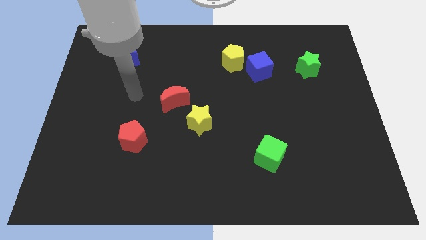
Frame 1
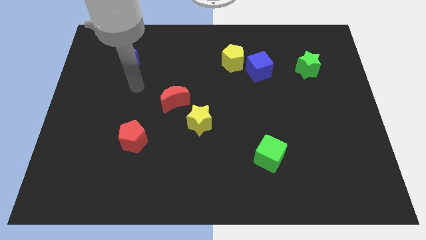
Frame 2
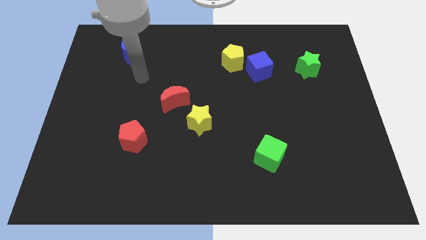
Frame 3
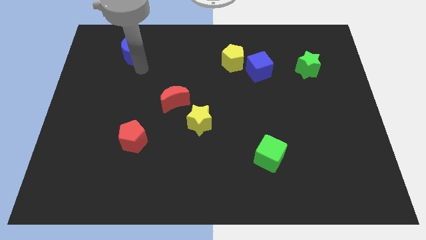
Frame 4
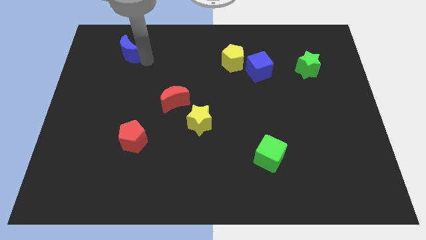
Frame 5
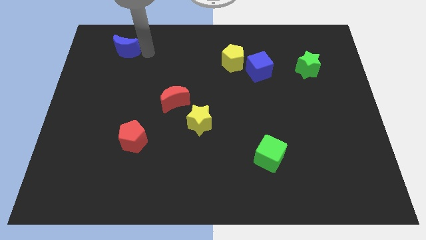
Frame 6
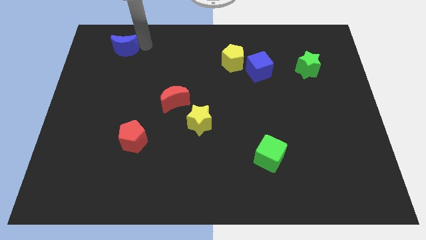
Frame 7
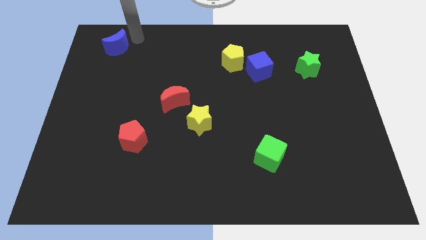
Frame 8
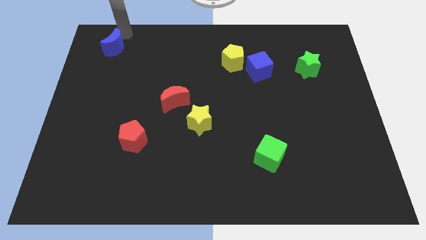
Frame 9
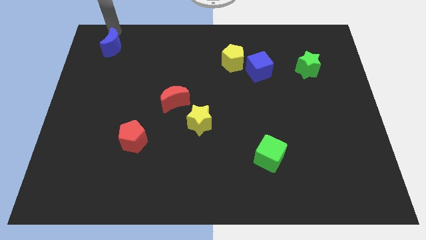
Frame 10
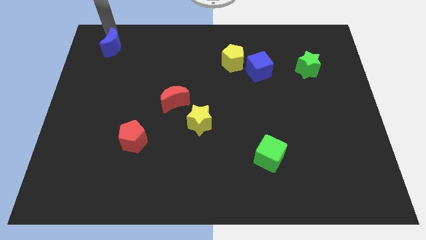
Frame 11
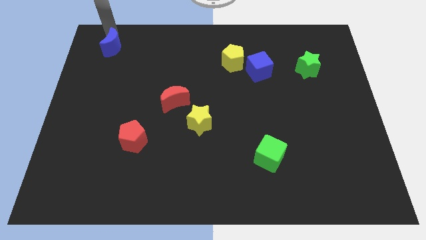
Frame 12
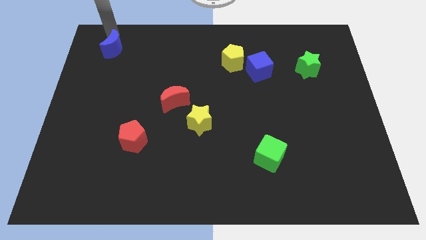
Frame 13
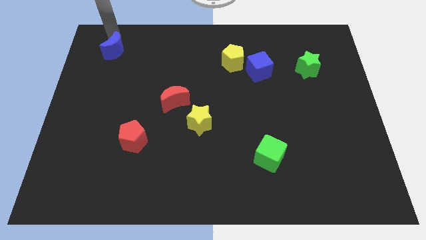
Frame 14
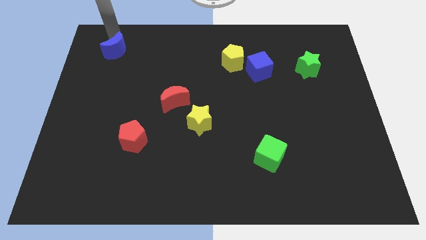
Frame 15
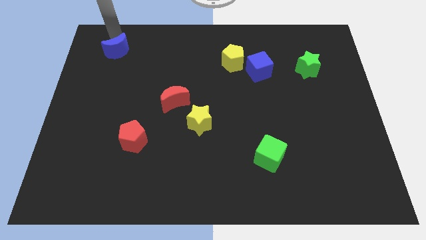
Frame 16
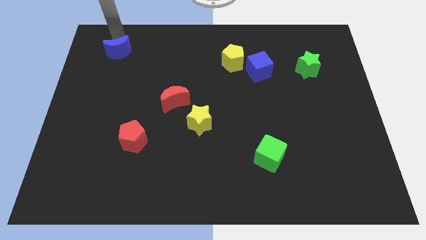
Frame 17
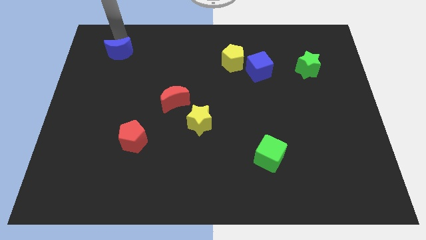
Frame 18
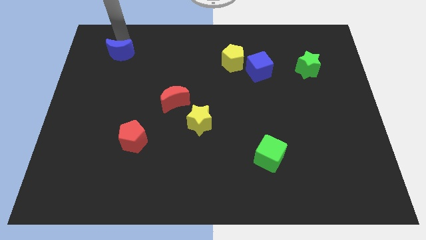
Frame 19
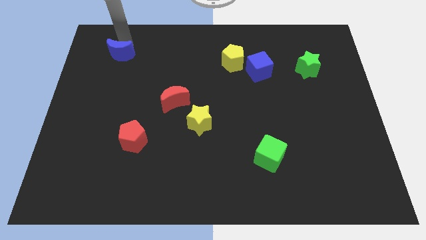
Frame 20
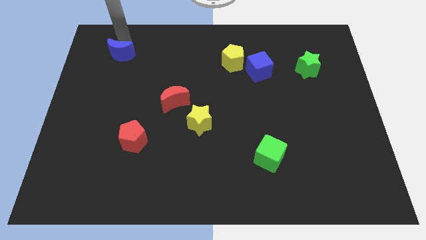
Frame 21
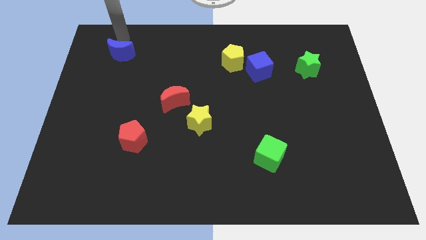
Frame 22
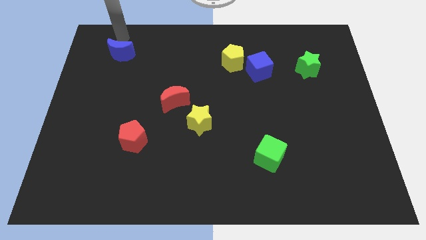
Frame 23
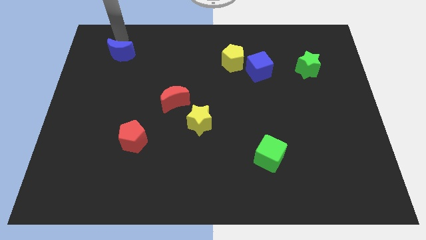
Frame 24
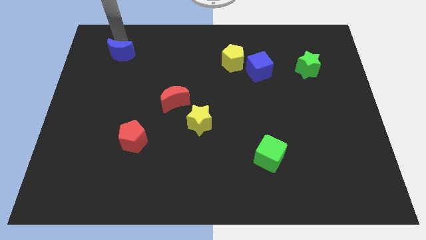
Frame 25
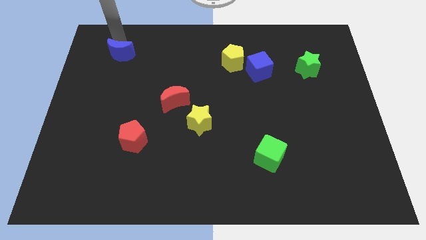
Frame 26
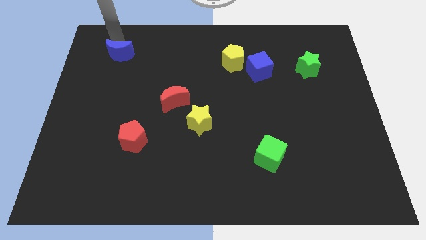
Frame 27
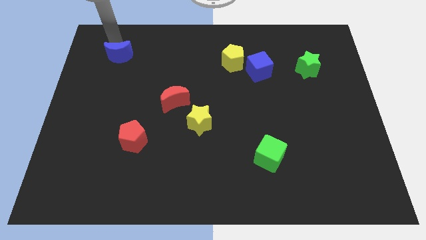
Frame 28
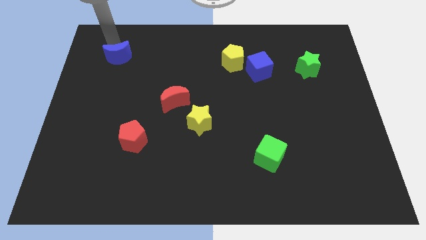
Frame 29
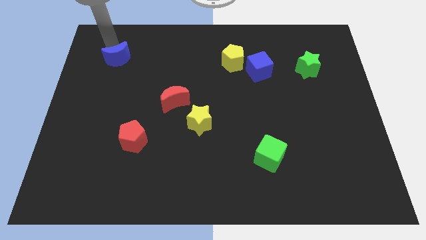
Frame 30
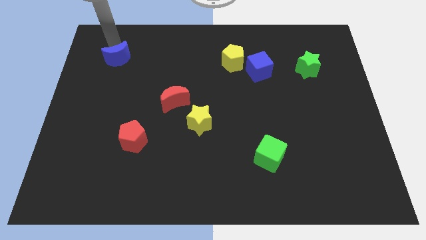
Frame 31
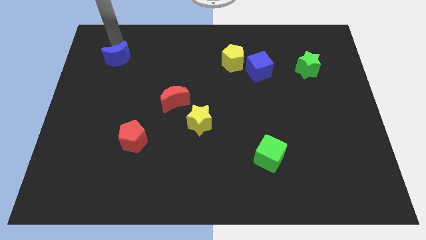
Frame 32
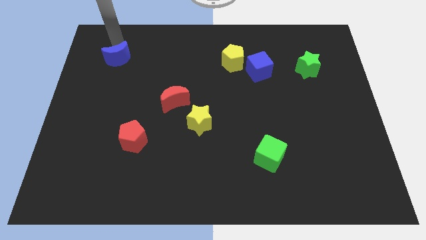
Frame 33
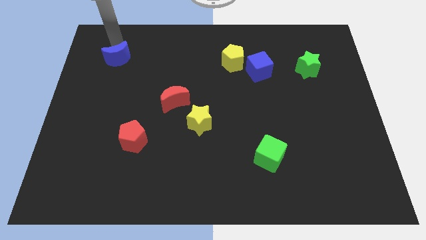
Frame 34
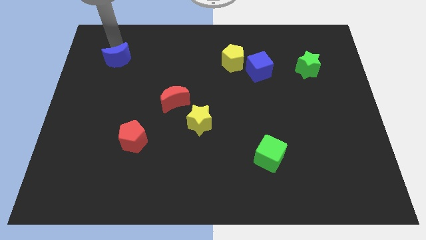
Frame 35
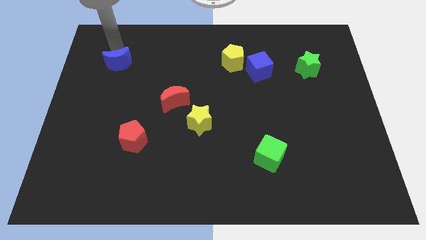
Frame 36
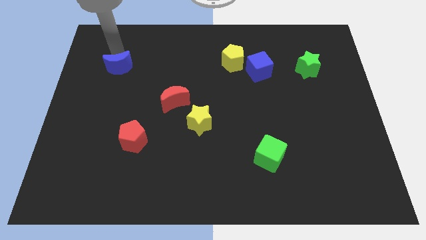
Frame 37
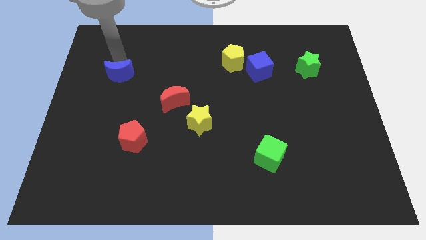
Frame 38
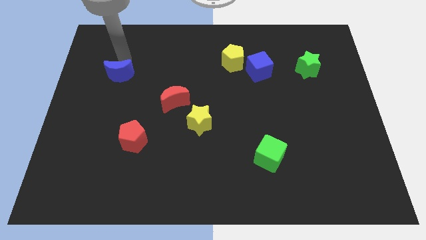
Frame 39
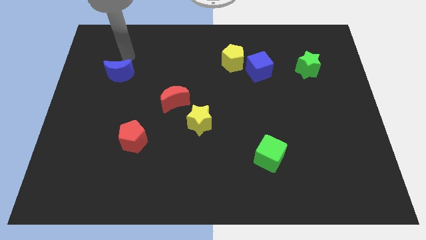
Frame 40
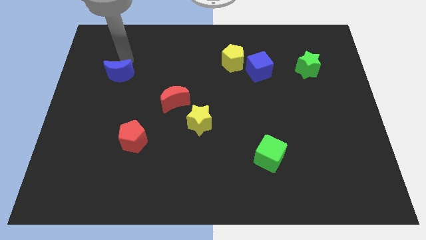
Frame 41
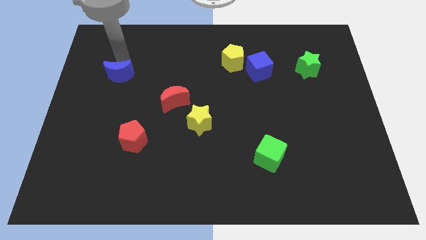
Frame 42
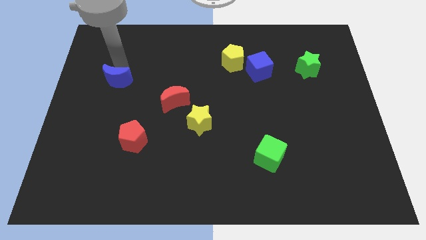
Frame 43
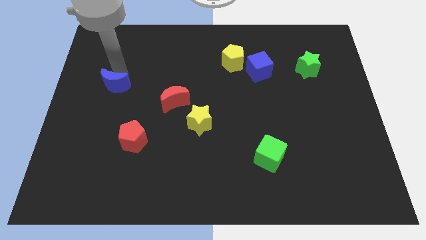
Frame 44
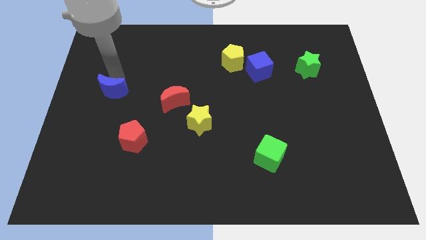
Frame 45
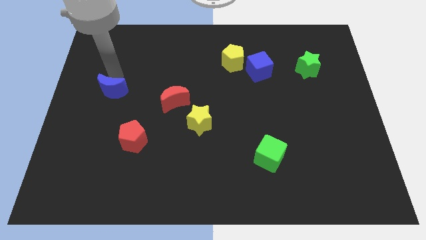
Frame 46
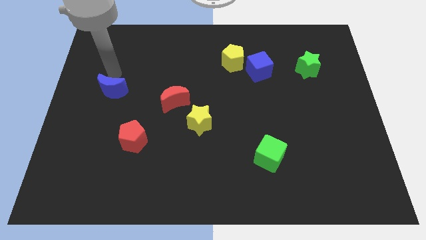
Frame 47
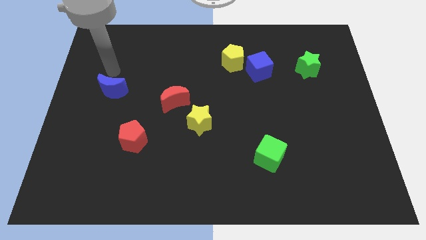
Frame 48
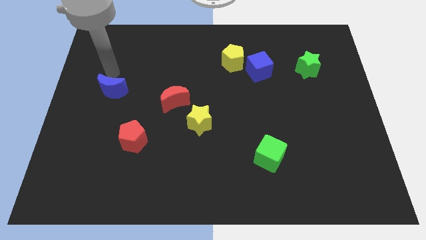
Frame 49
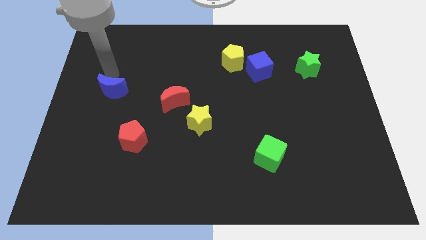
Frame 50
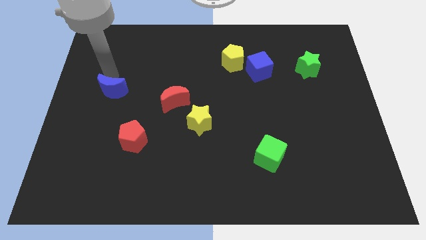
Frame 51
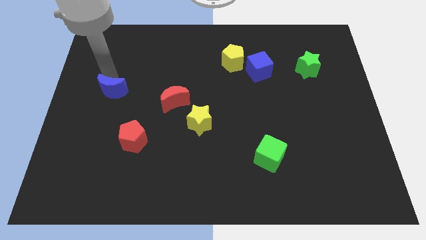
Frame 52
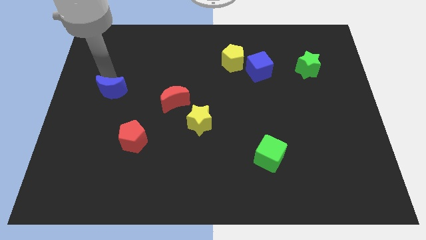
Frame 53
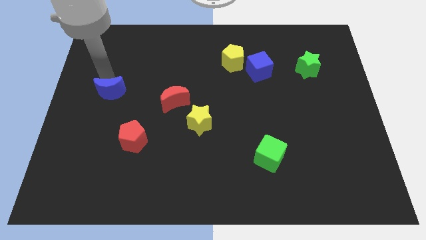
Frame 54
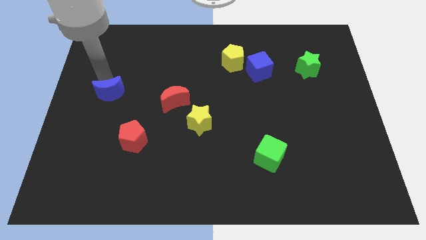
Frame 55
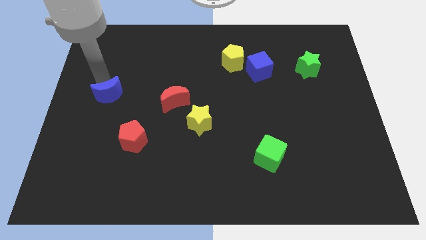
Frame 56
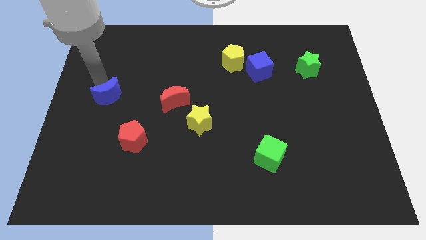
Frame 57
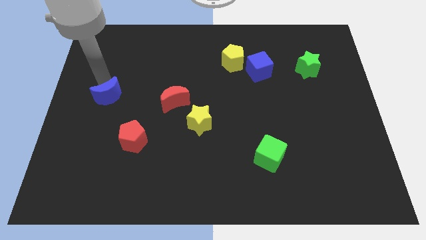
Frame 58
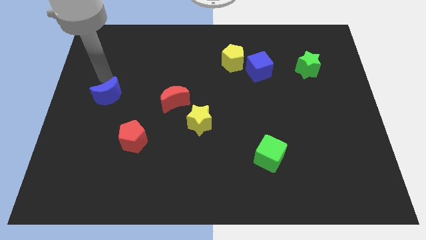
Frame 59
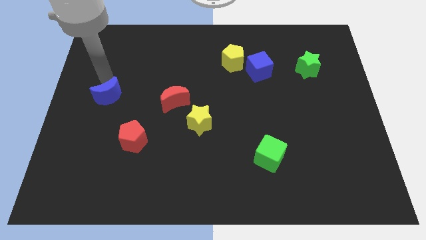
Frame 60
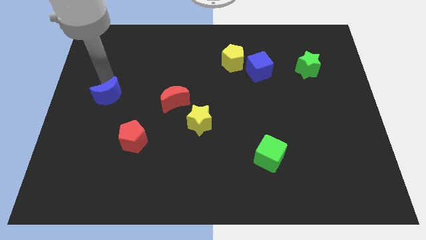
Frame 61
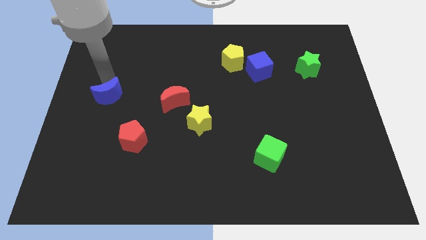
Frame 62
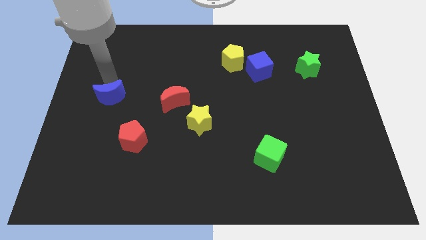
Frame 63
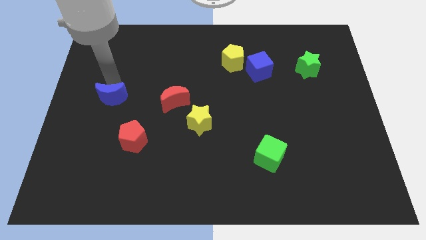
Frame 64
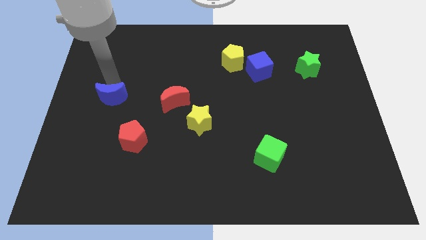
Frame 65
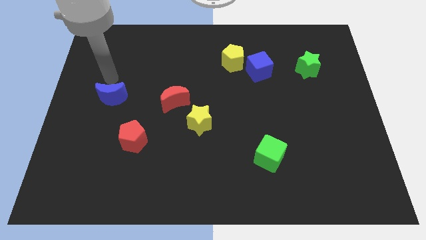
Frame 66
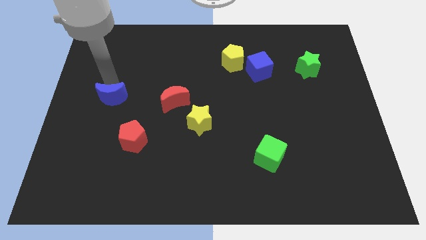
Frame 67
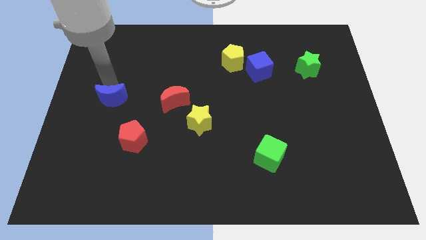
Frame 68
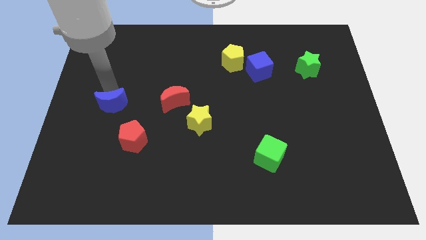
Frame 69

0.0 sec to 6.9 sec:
move the blue moon diagonally up and to the left of the red pentagon

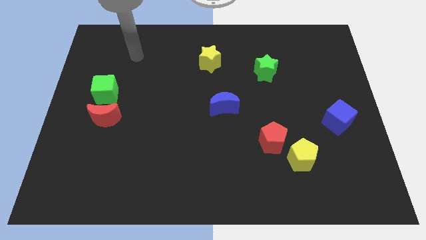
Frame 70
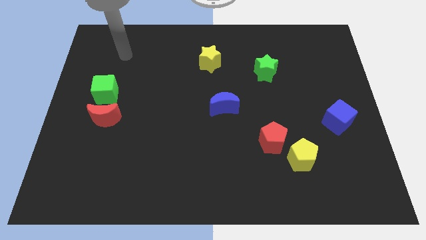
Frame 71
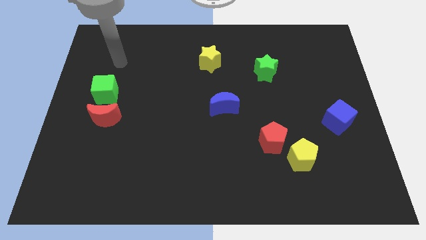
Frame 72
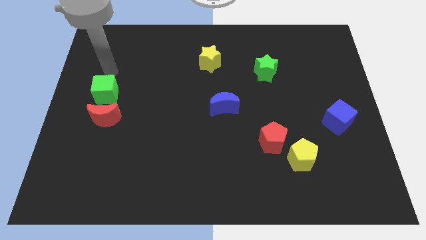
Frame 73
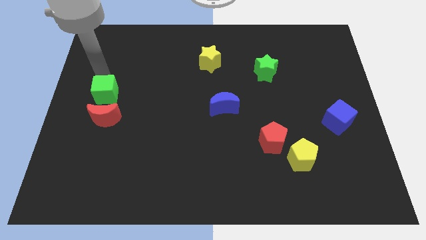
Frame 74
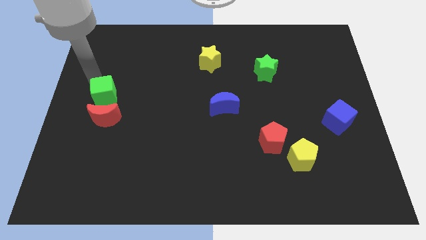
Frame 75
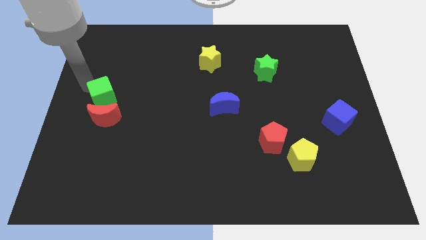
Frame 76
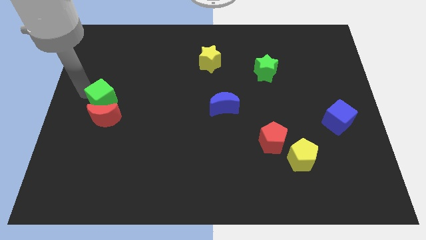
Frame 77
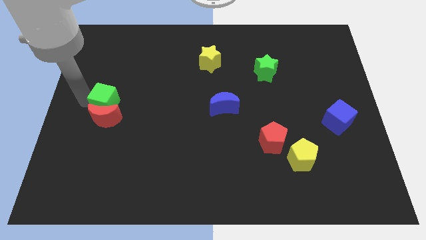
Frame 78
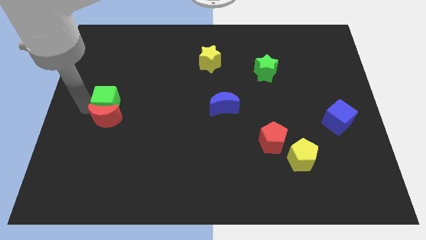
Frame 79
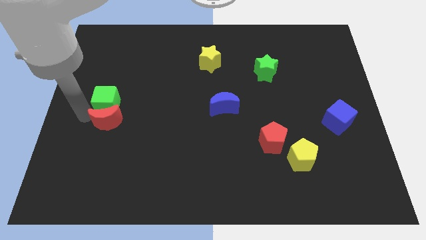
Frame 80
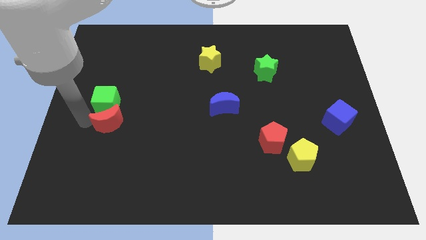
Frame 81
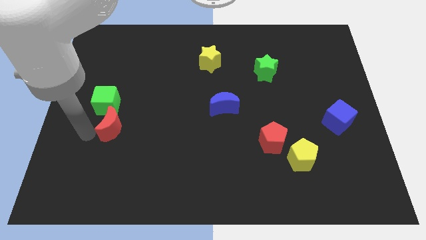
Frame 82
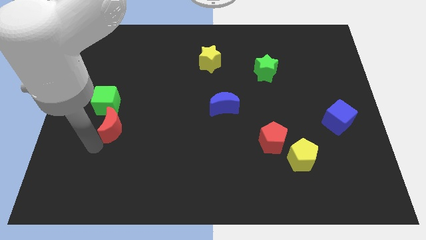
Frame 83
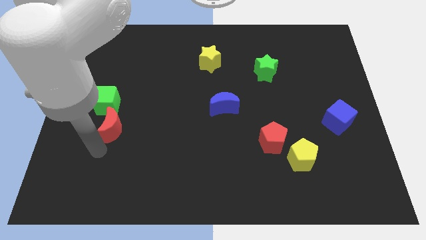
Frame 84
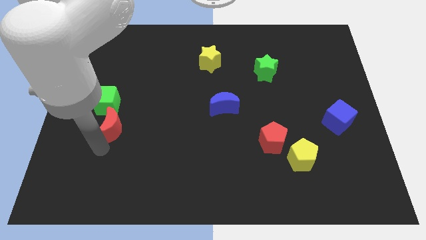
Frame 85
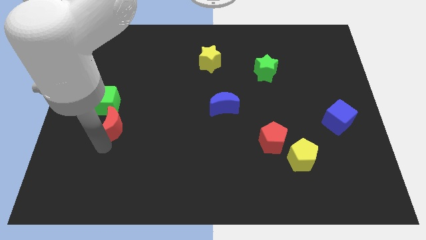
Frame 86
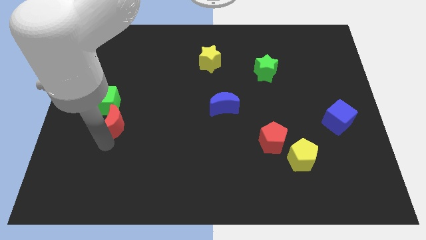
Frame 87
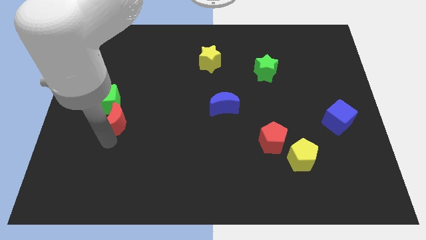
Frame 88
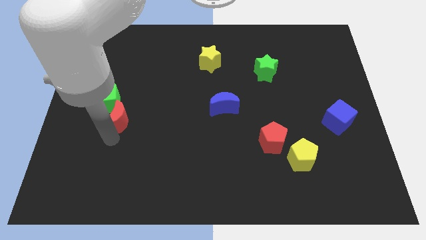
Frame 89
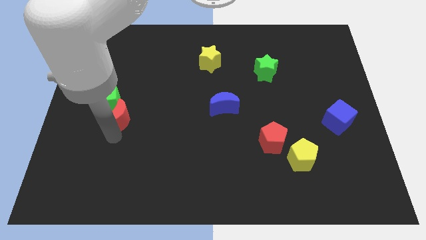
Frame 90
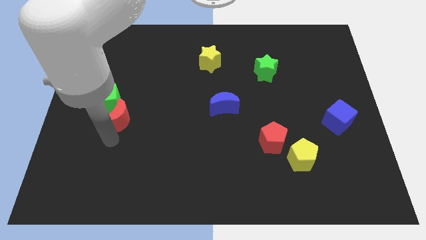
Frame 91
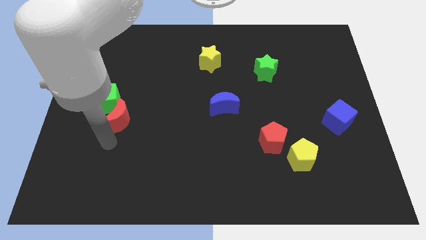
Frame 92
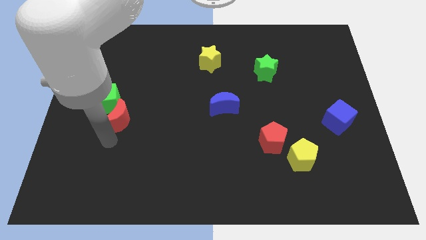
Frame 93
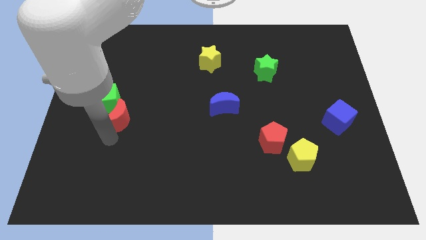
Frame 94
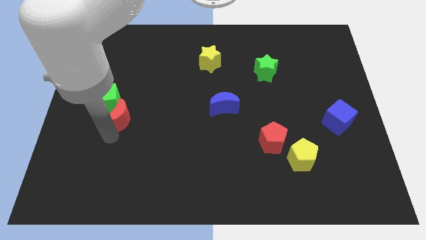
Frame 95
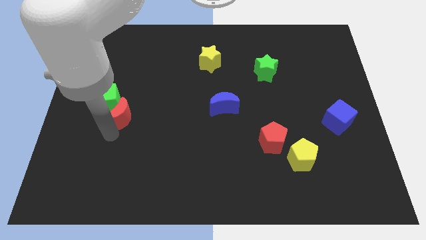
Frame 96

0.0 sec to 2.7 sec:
slide the red moon right of the green cube
